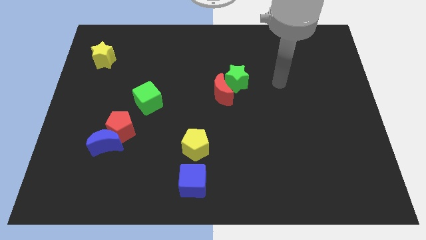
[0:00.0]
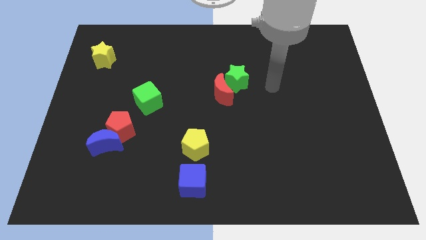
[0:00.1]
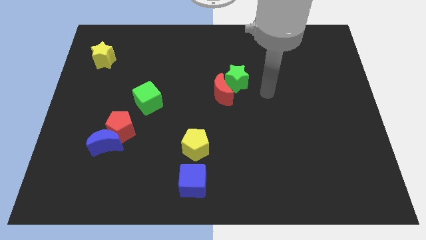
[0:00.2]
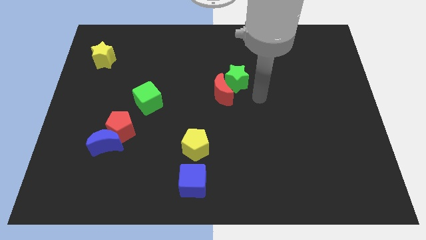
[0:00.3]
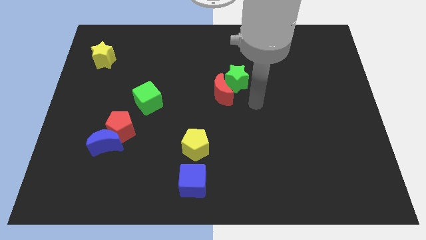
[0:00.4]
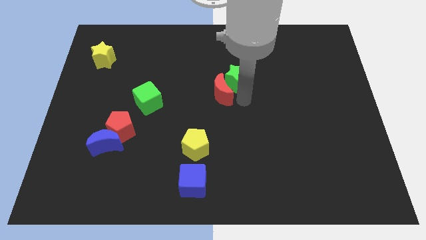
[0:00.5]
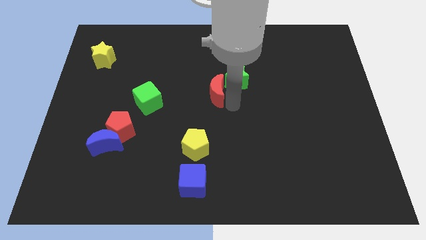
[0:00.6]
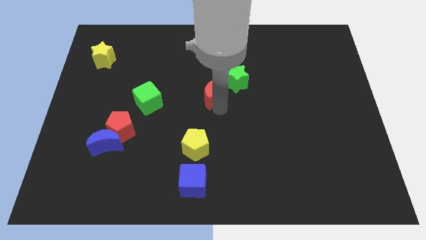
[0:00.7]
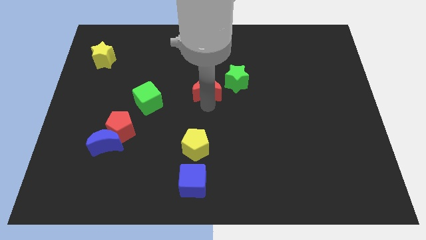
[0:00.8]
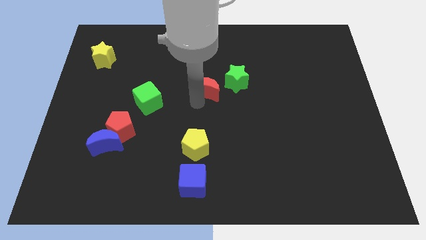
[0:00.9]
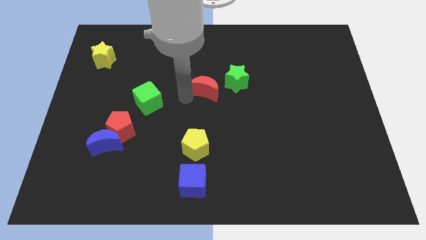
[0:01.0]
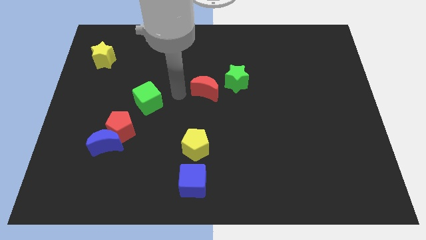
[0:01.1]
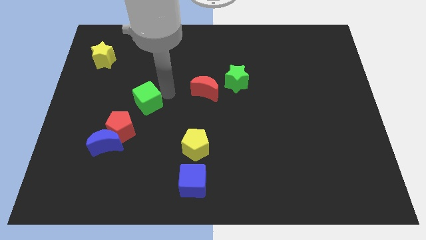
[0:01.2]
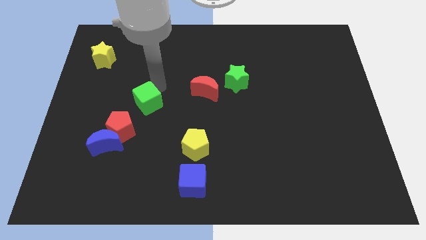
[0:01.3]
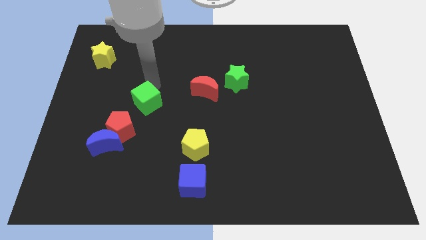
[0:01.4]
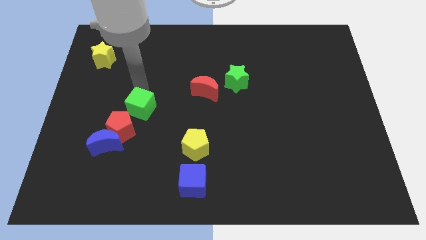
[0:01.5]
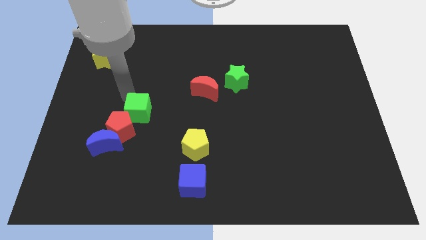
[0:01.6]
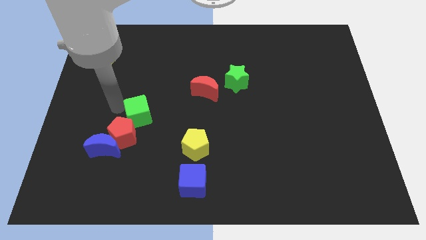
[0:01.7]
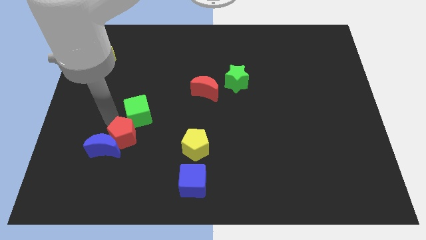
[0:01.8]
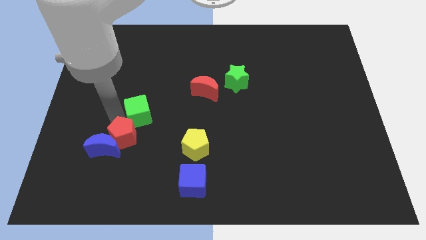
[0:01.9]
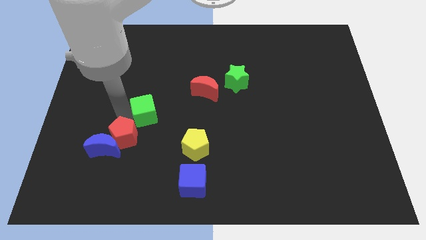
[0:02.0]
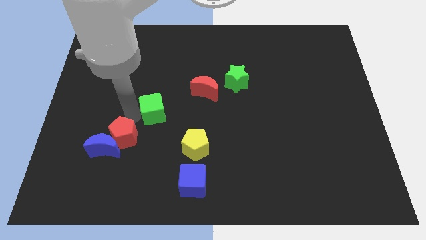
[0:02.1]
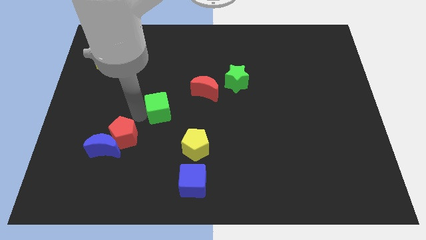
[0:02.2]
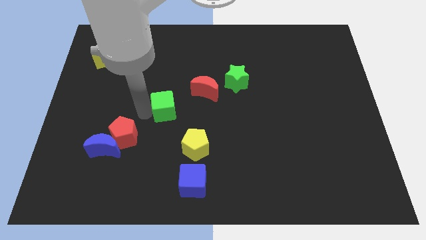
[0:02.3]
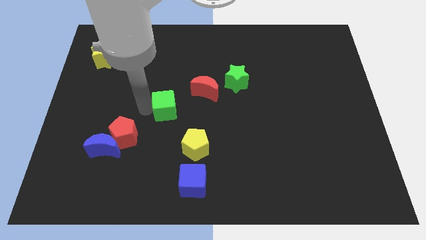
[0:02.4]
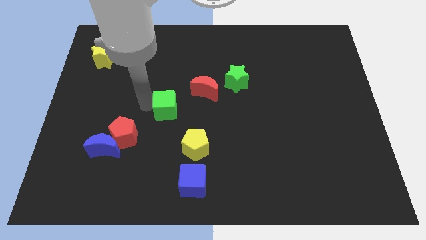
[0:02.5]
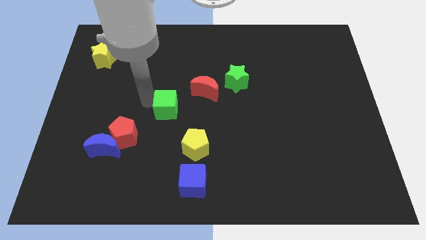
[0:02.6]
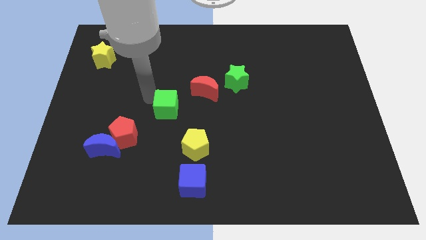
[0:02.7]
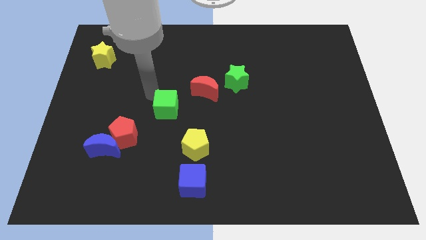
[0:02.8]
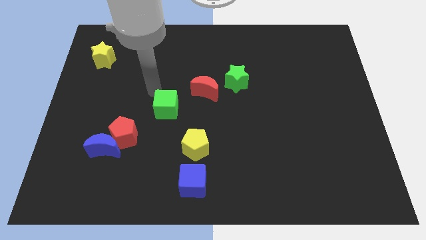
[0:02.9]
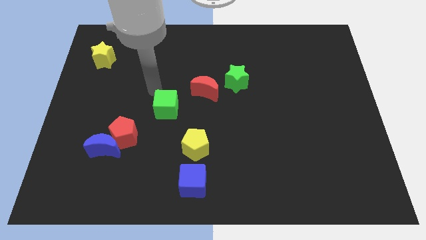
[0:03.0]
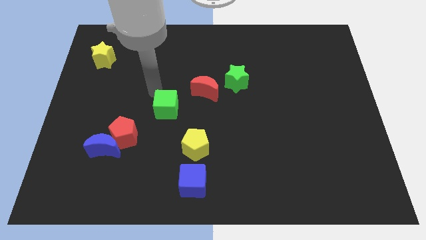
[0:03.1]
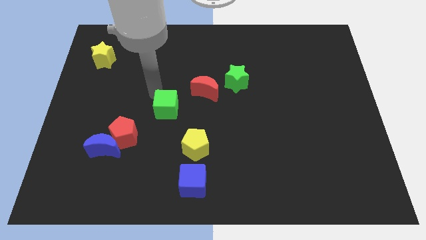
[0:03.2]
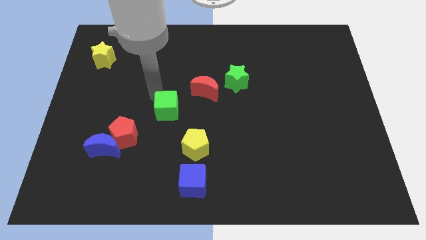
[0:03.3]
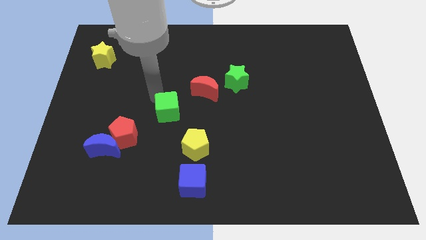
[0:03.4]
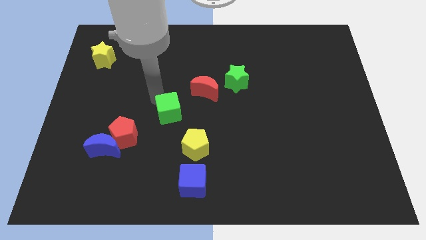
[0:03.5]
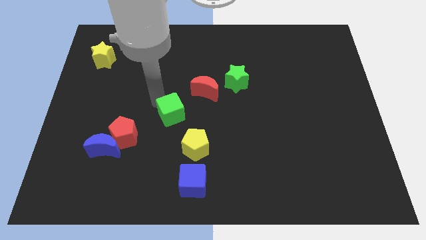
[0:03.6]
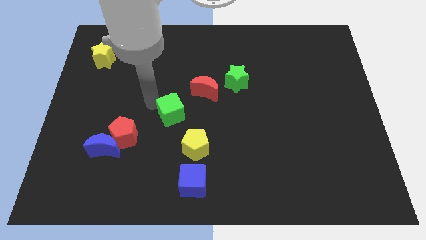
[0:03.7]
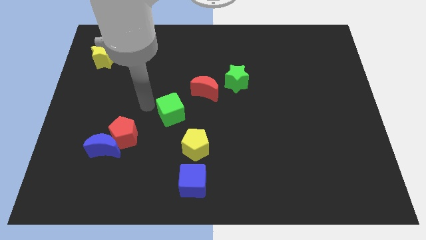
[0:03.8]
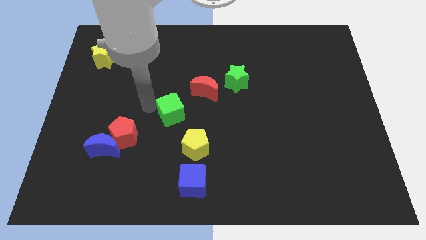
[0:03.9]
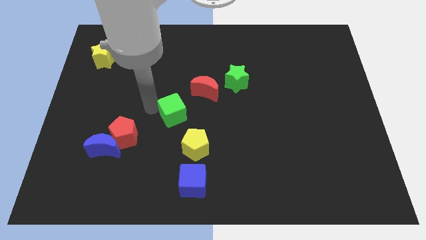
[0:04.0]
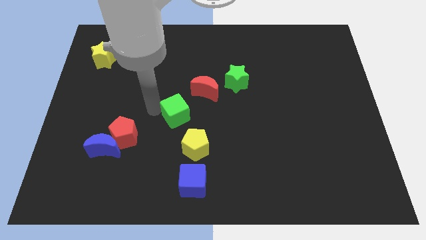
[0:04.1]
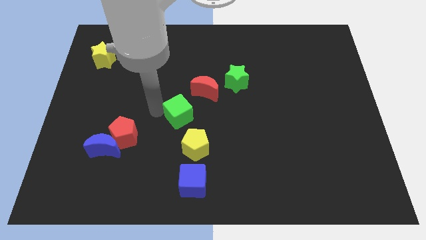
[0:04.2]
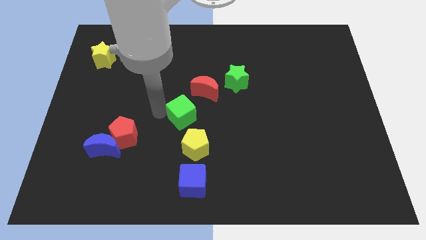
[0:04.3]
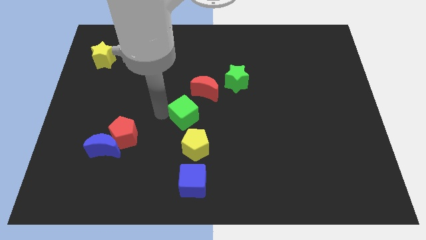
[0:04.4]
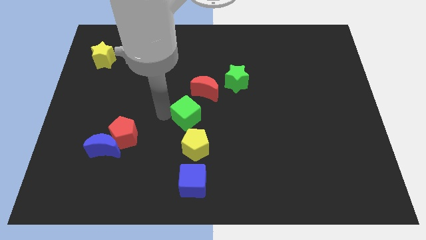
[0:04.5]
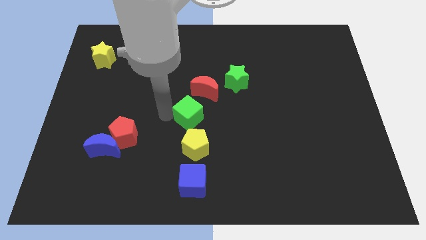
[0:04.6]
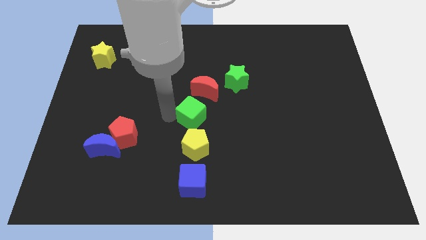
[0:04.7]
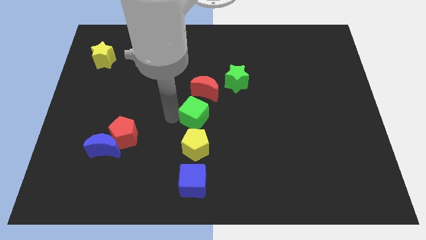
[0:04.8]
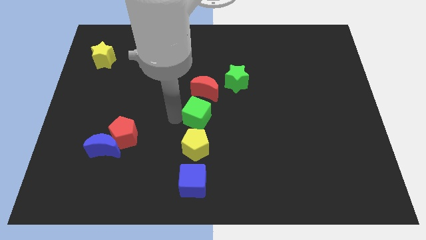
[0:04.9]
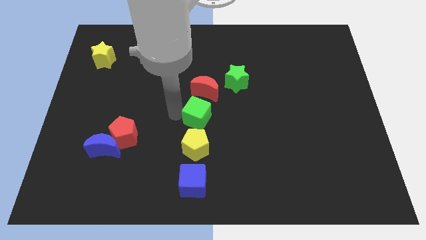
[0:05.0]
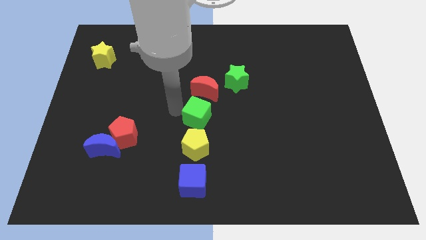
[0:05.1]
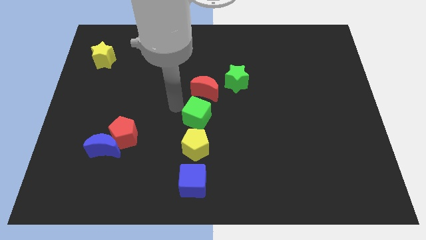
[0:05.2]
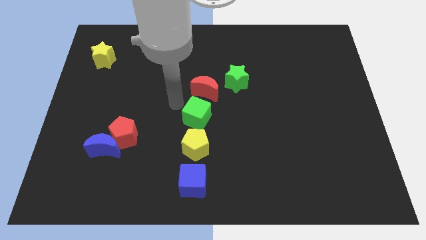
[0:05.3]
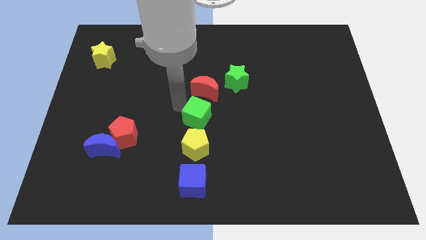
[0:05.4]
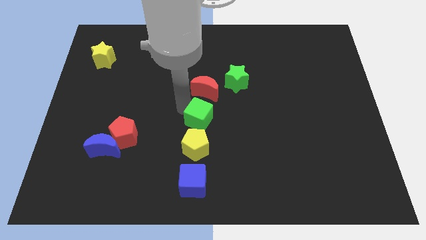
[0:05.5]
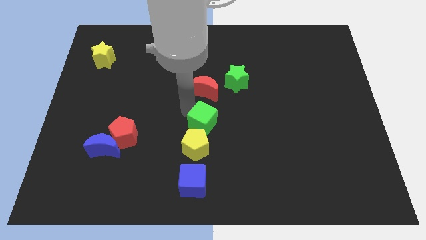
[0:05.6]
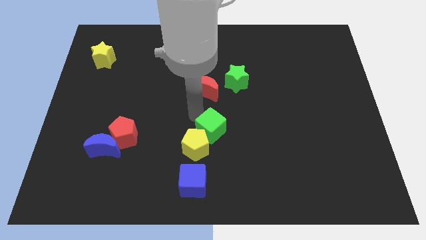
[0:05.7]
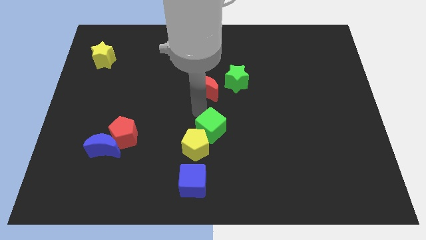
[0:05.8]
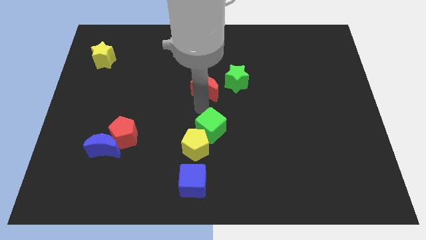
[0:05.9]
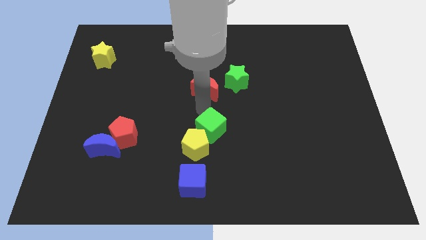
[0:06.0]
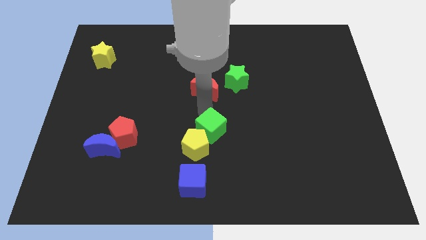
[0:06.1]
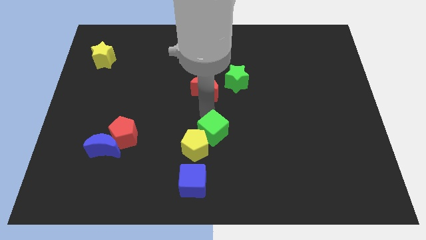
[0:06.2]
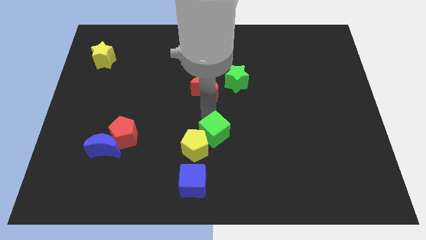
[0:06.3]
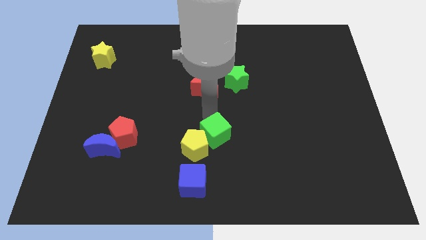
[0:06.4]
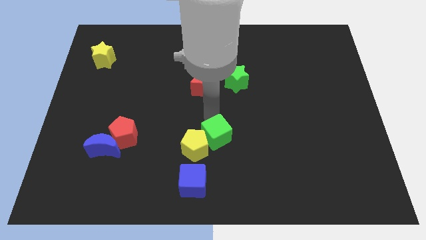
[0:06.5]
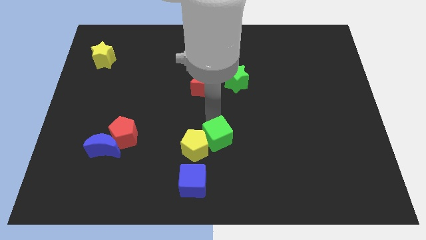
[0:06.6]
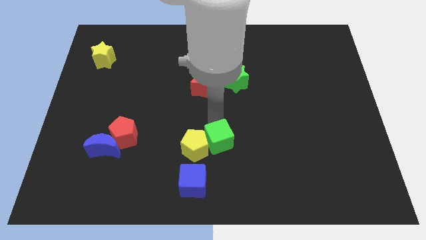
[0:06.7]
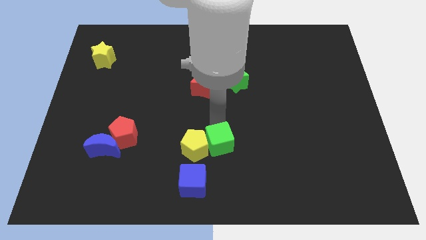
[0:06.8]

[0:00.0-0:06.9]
slide the green cube diagonally down and to the right of the yellow pentagon
